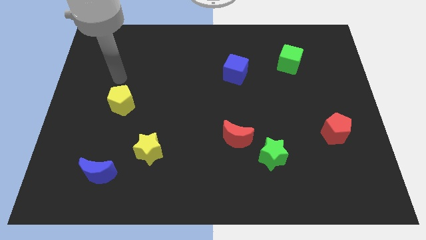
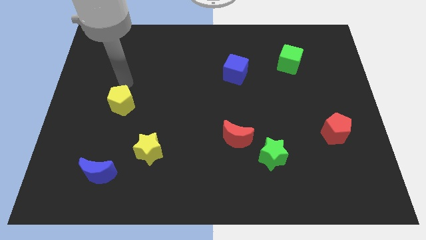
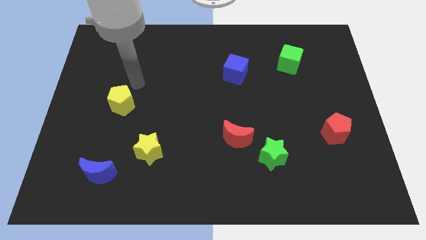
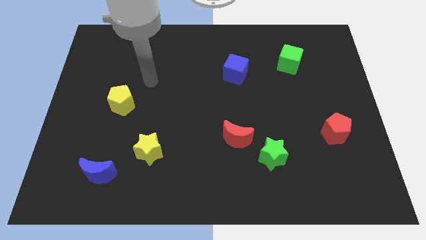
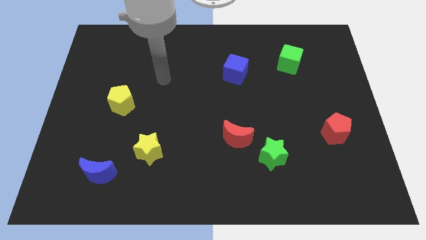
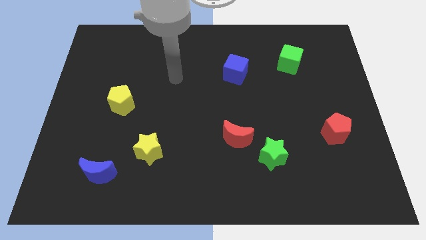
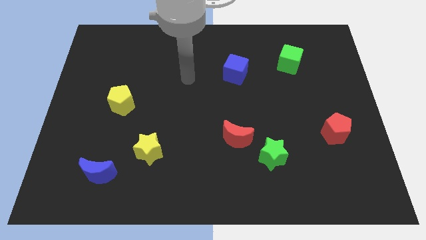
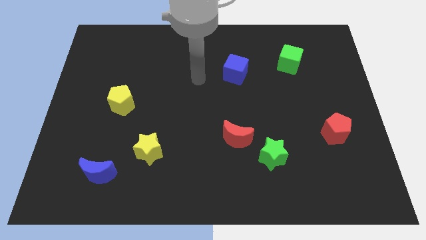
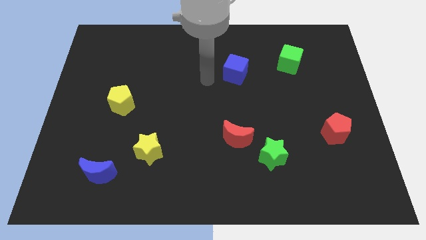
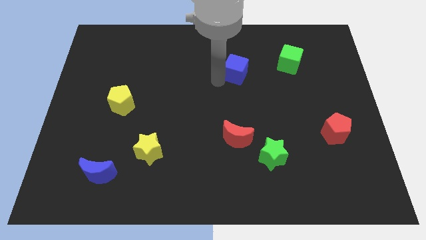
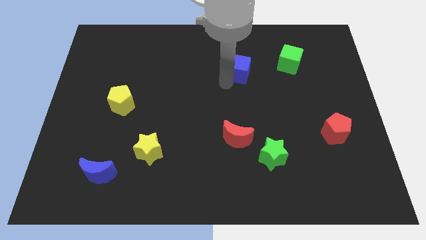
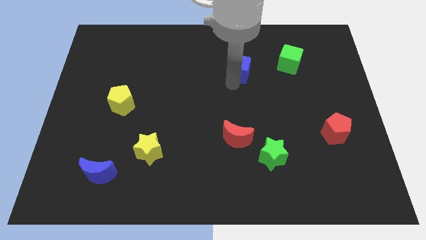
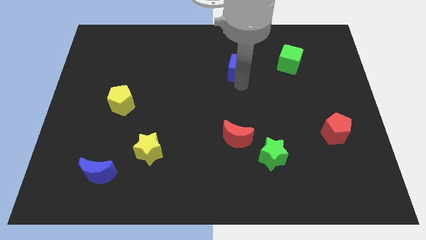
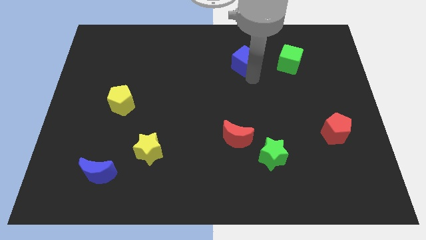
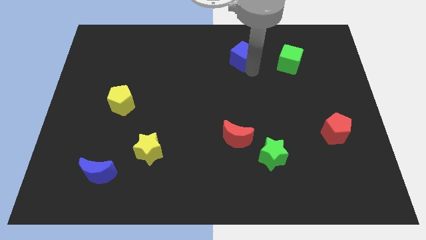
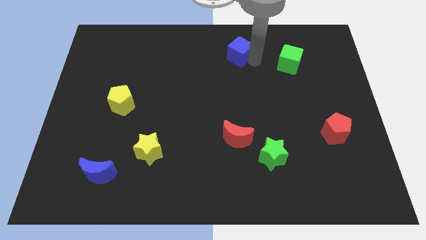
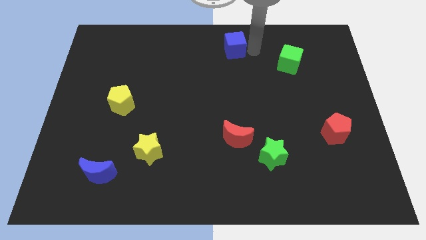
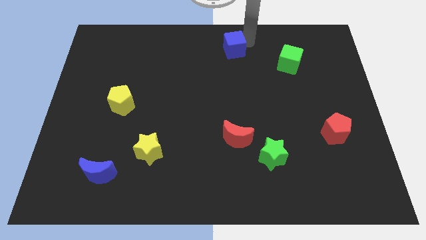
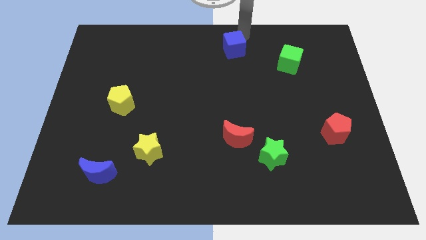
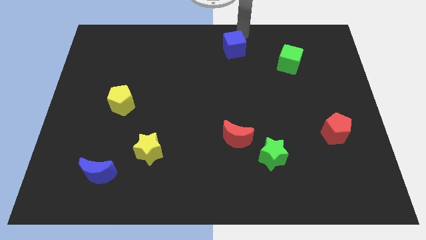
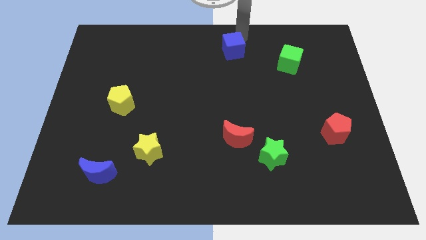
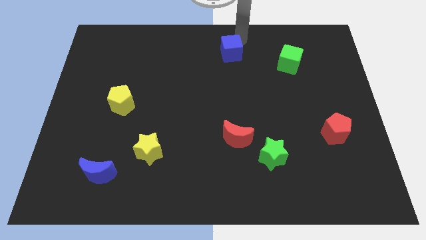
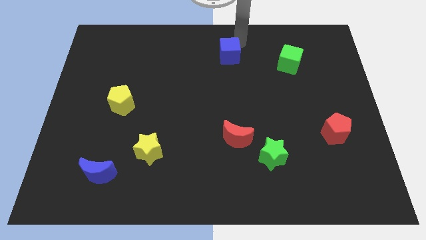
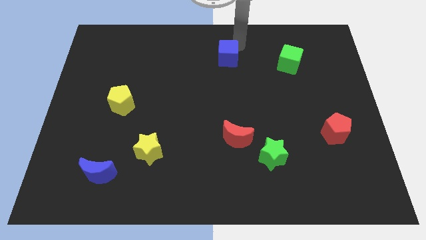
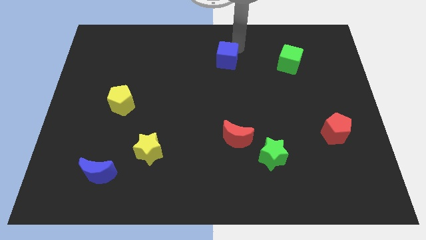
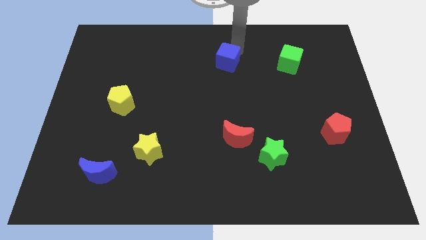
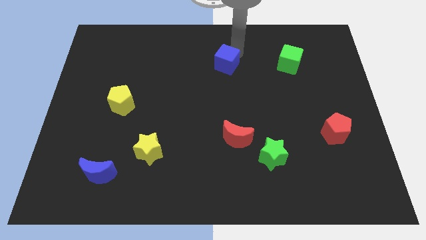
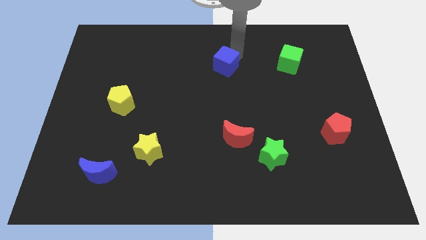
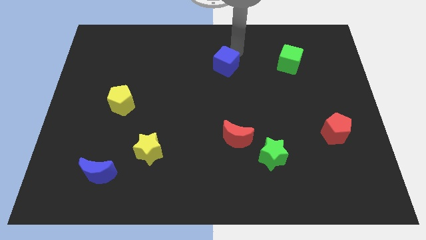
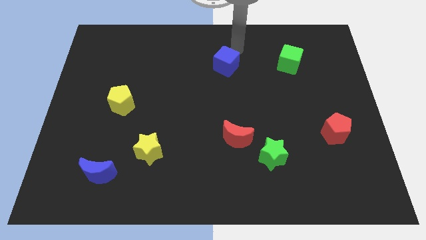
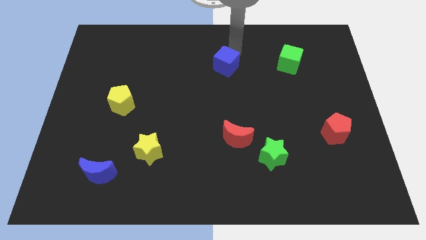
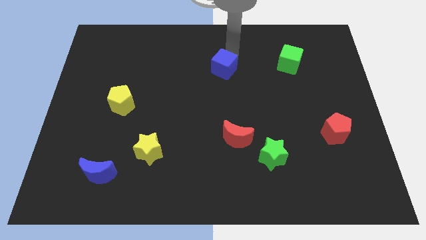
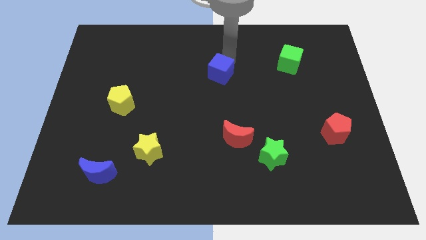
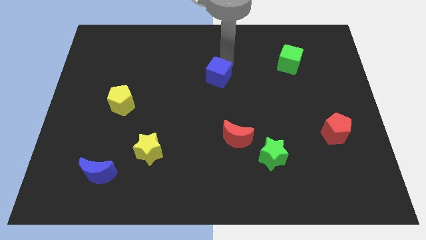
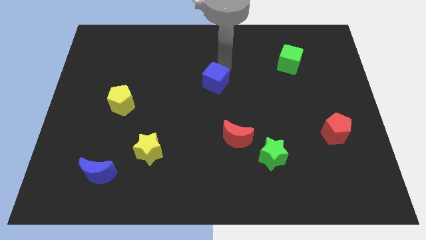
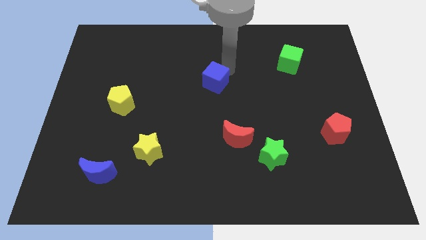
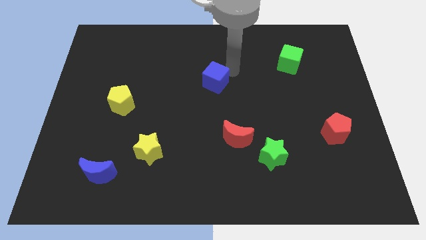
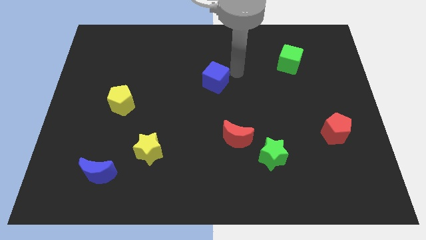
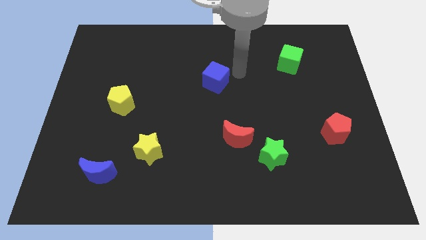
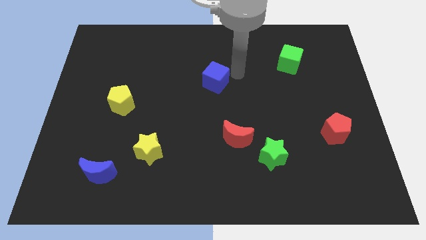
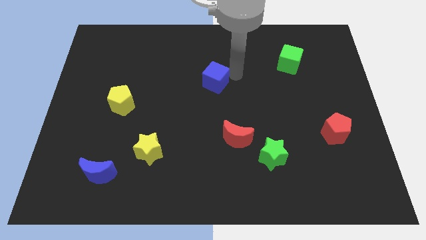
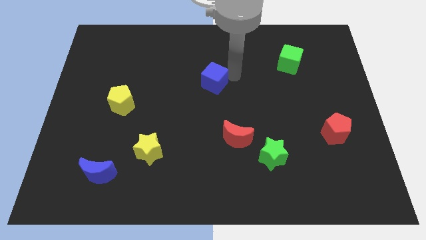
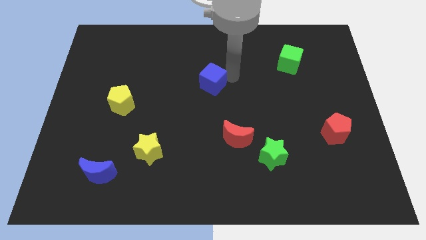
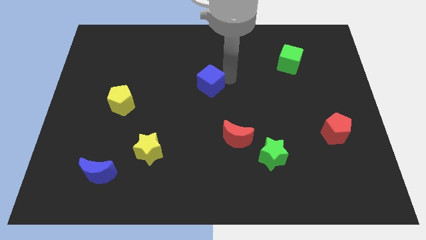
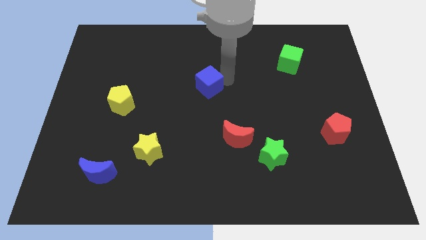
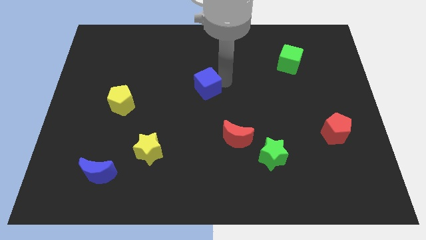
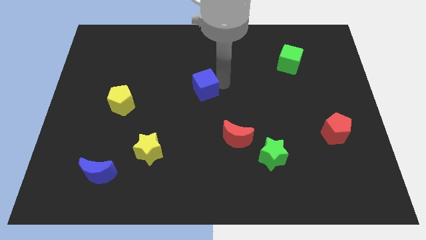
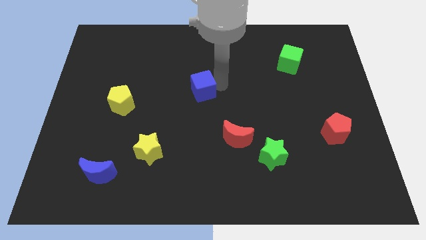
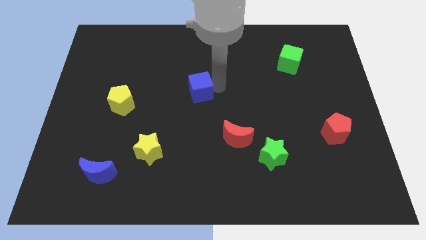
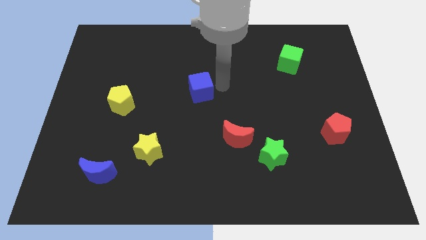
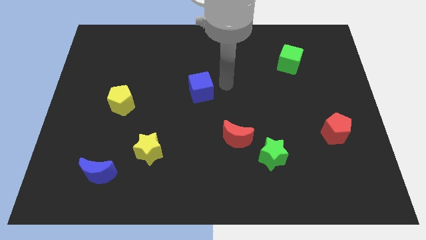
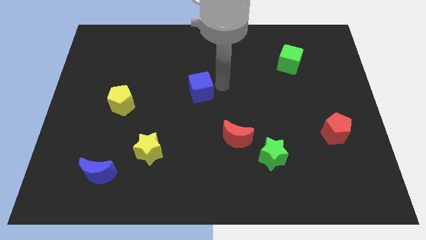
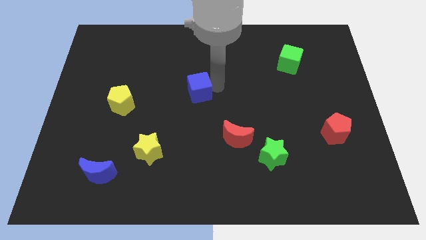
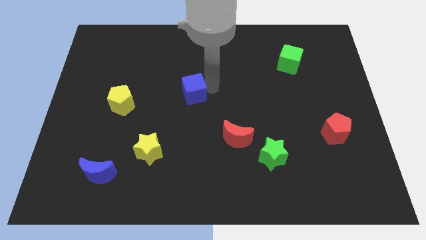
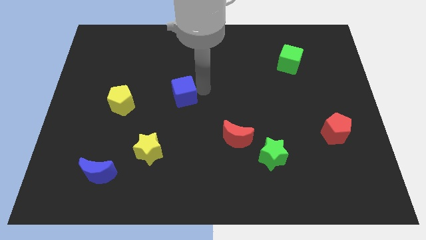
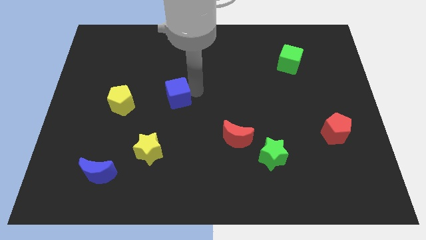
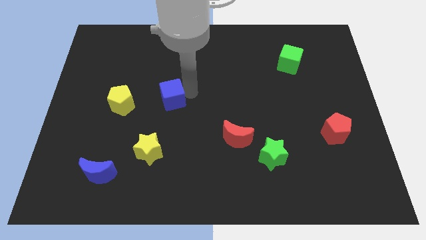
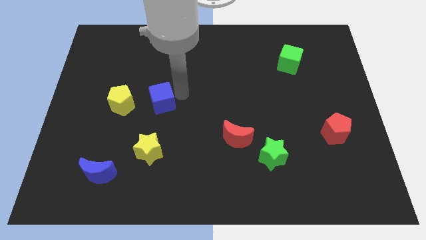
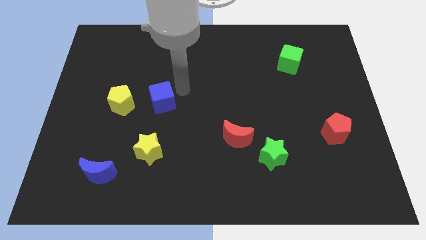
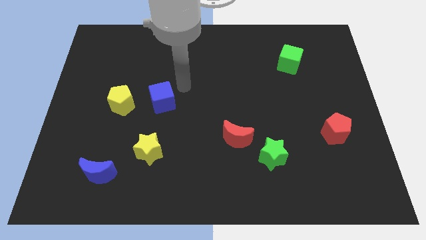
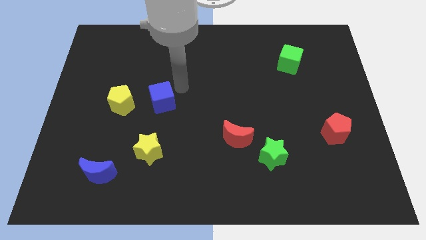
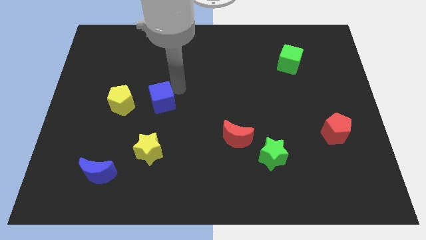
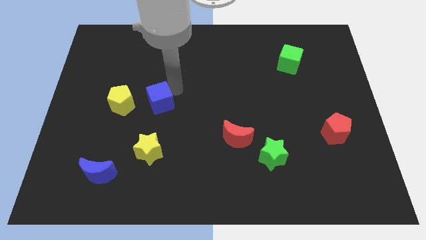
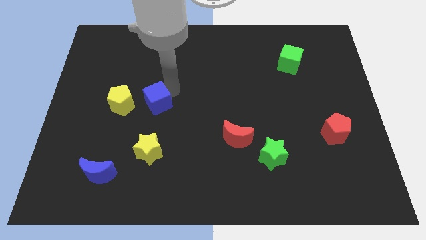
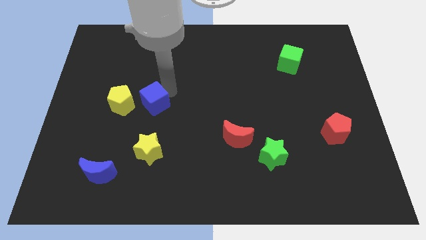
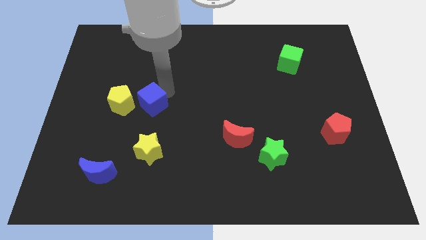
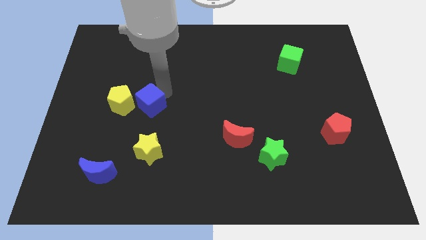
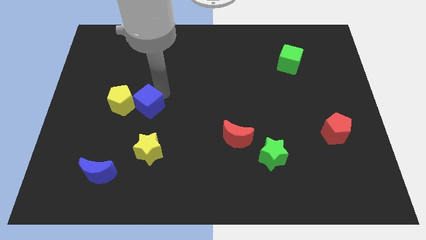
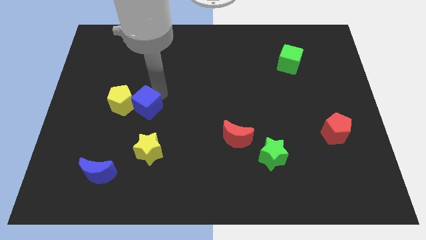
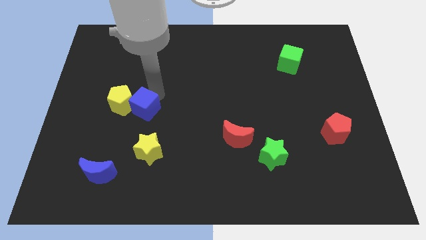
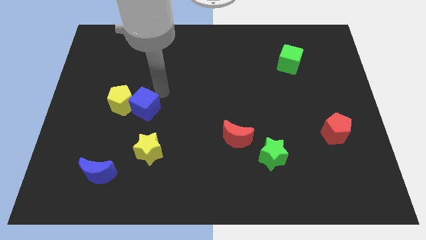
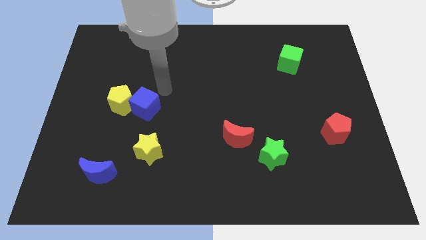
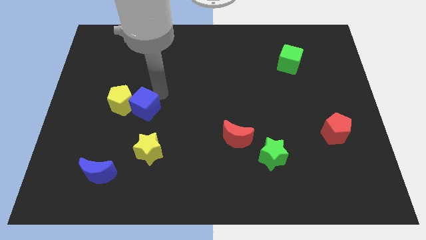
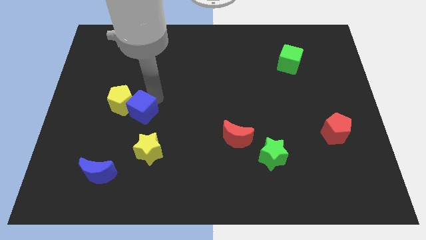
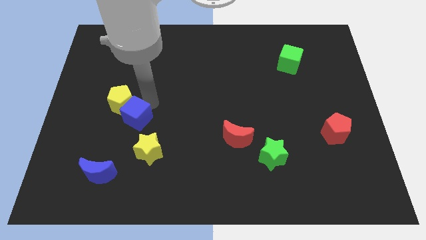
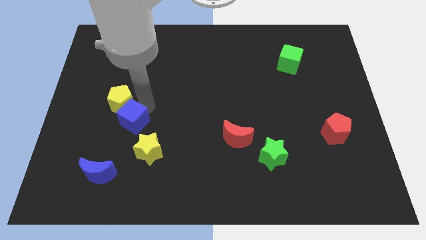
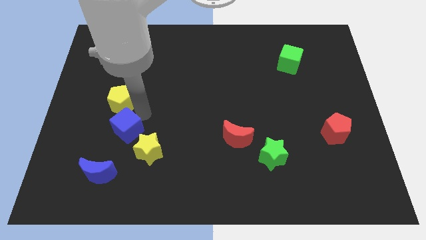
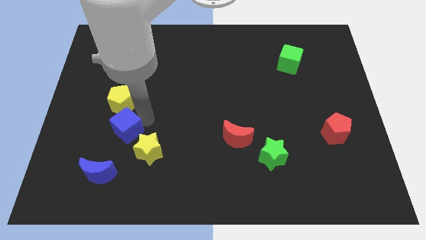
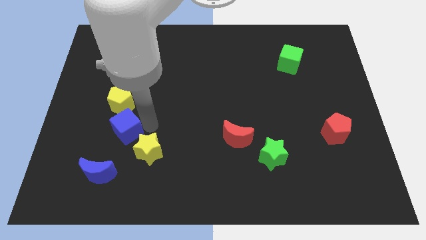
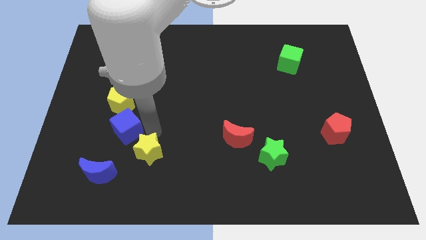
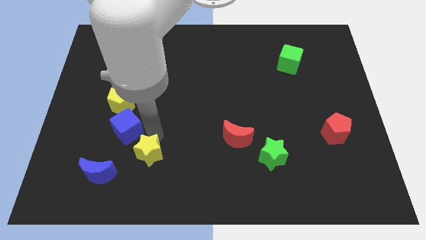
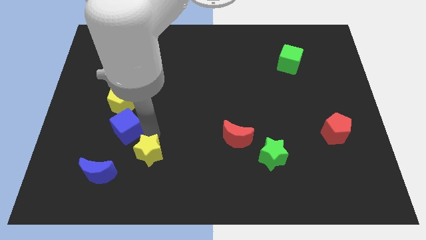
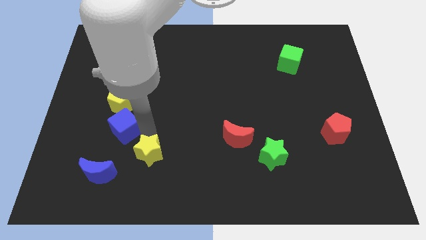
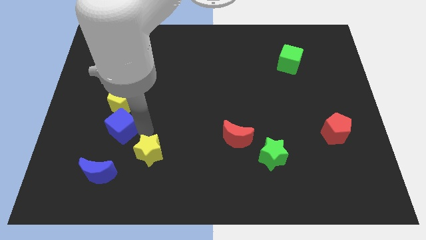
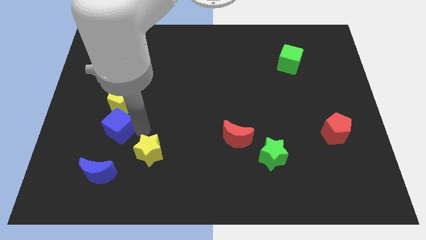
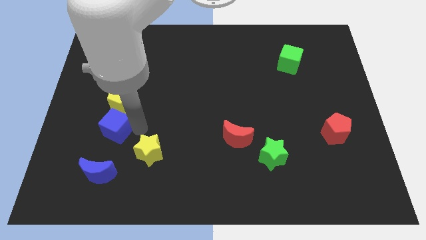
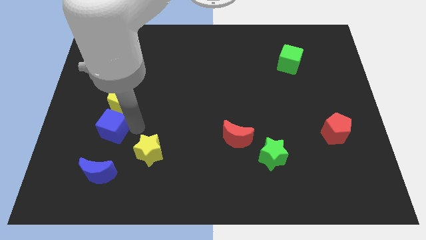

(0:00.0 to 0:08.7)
slide the blue cube to the bottom left side of the yellow pentagon
